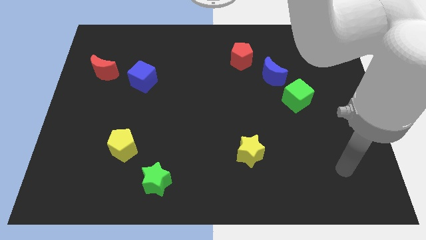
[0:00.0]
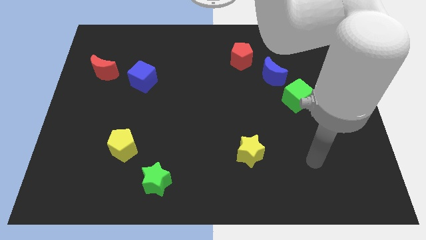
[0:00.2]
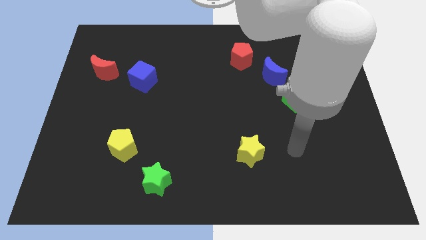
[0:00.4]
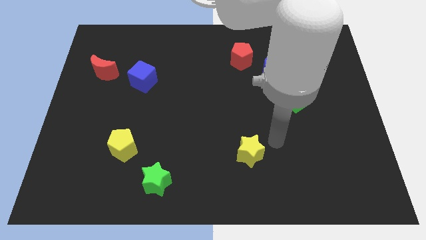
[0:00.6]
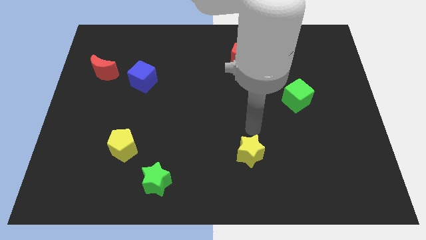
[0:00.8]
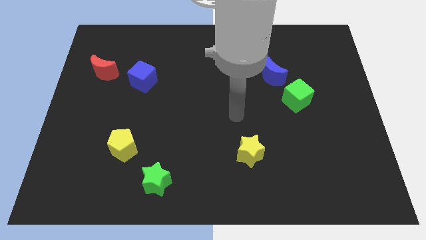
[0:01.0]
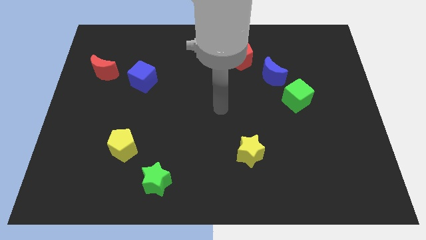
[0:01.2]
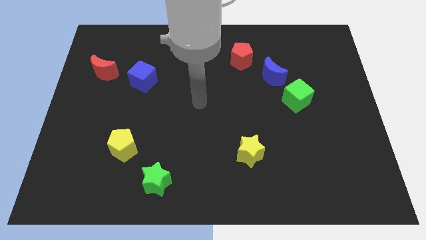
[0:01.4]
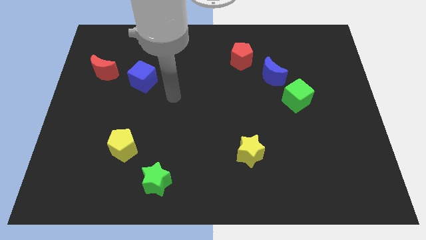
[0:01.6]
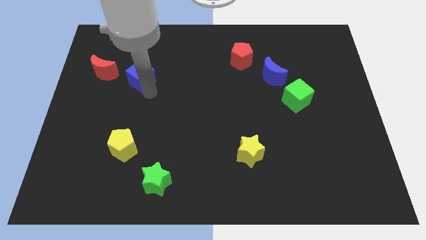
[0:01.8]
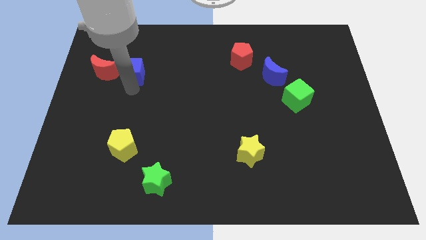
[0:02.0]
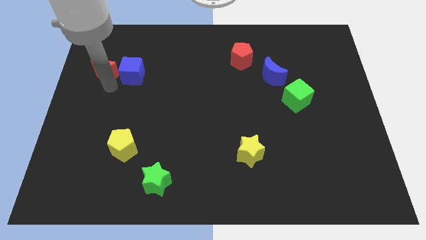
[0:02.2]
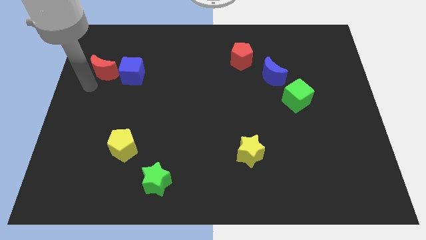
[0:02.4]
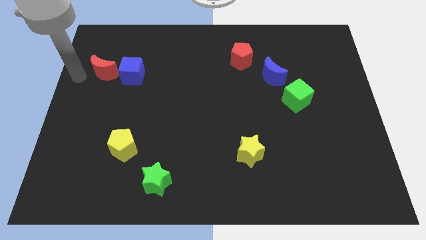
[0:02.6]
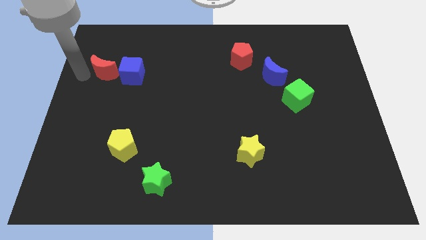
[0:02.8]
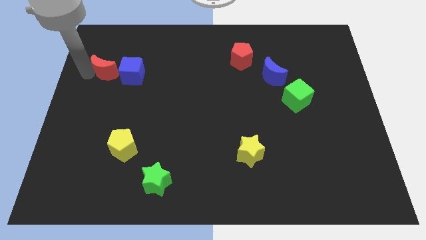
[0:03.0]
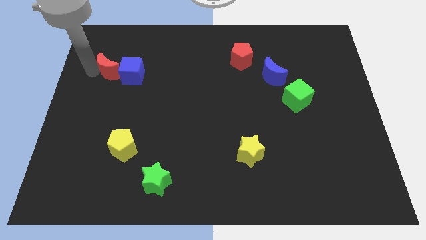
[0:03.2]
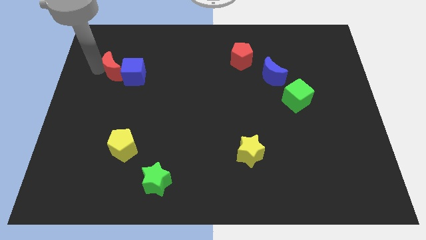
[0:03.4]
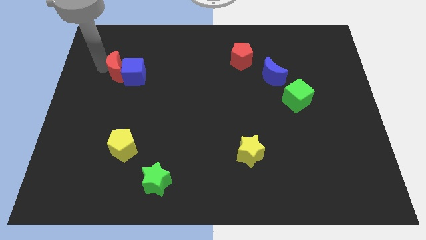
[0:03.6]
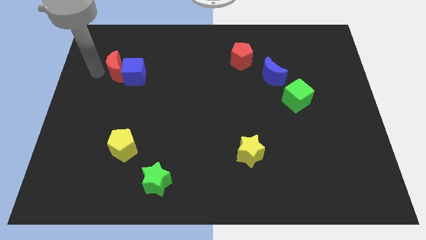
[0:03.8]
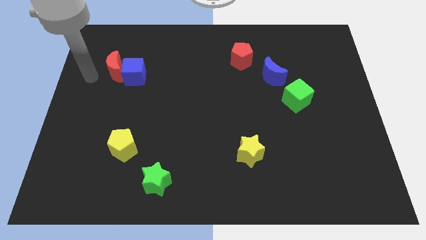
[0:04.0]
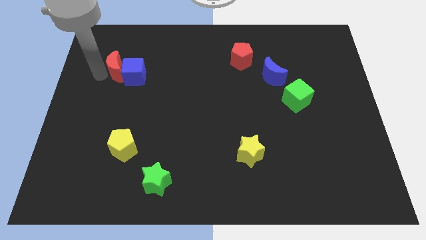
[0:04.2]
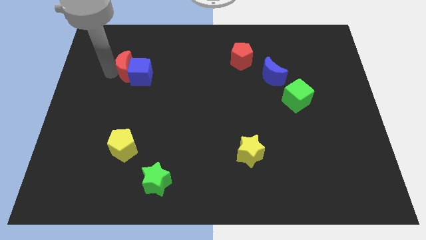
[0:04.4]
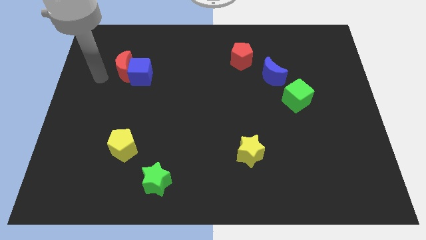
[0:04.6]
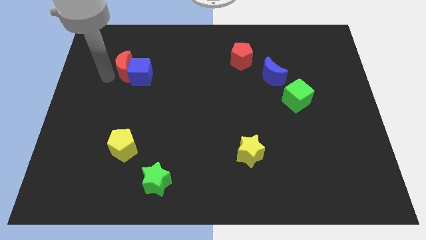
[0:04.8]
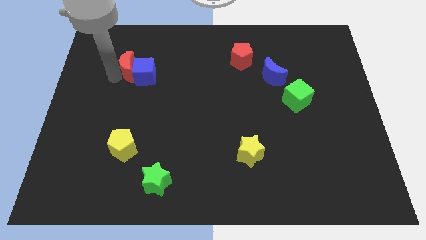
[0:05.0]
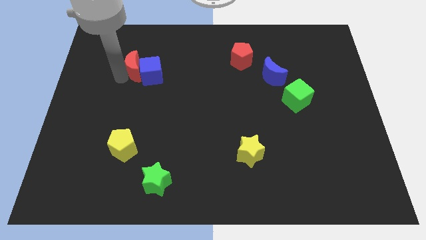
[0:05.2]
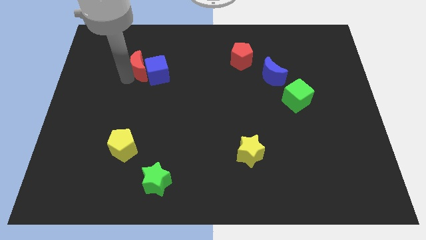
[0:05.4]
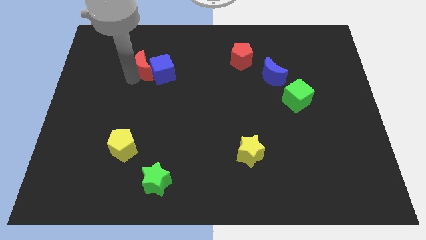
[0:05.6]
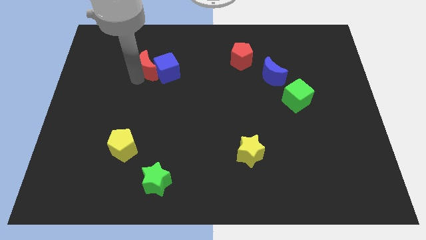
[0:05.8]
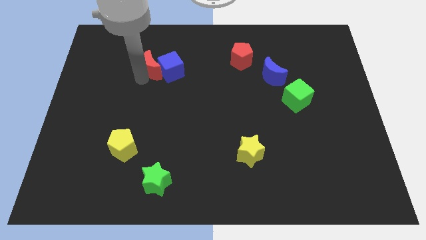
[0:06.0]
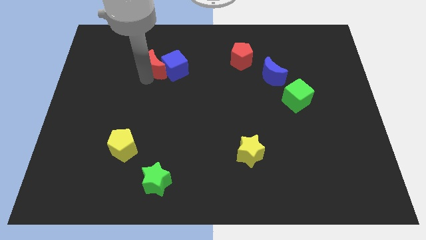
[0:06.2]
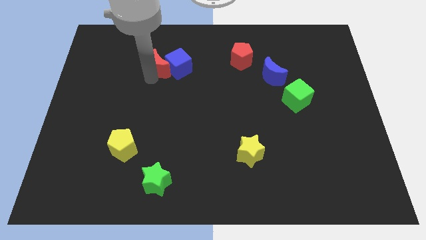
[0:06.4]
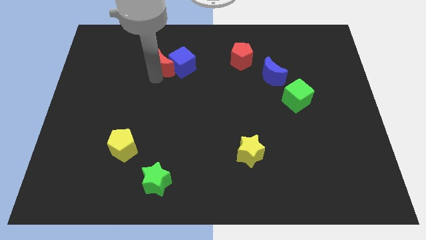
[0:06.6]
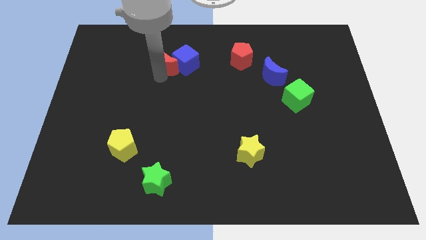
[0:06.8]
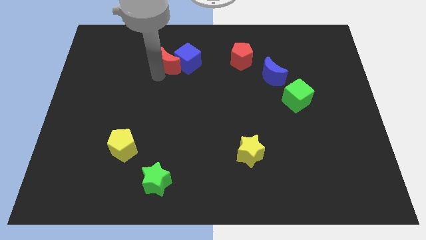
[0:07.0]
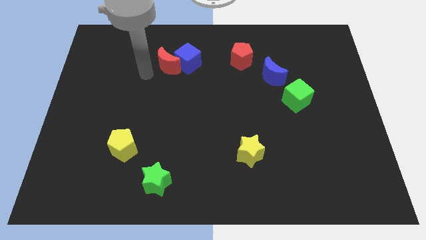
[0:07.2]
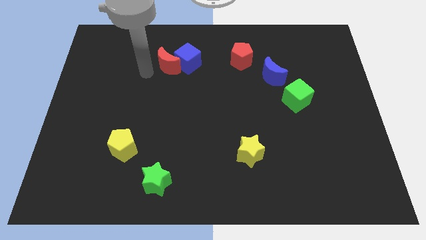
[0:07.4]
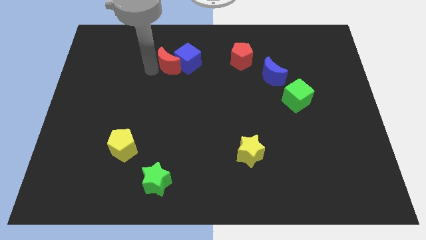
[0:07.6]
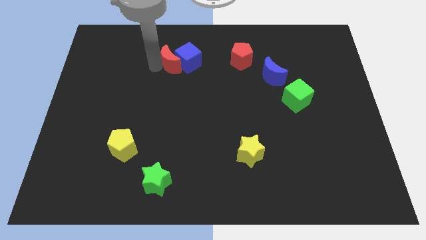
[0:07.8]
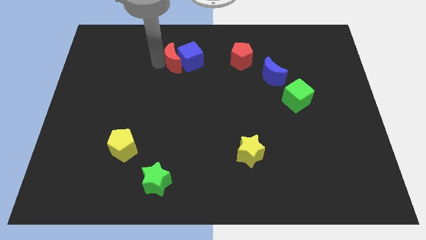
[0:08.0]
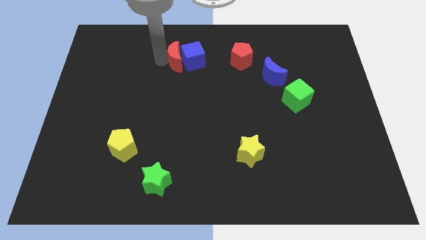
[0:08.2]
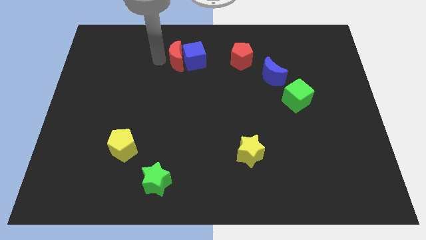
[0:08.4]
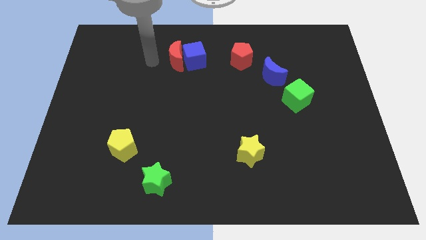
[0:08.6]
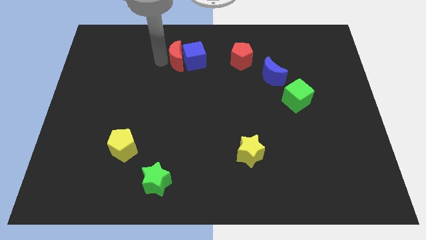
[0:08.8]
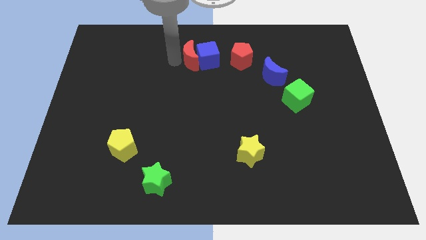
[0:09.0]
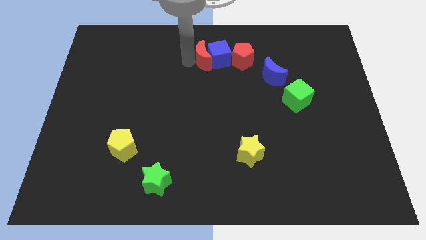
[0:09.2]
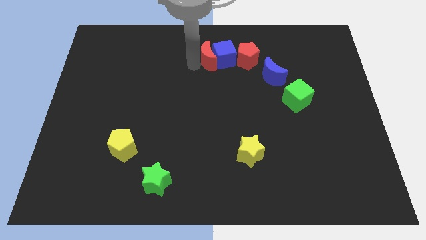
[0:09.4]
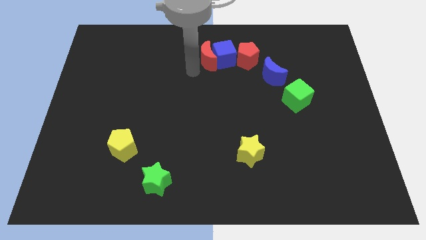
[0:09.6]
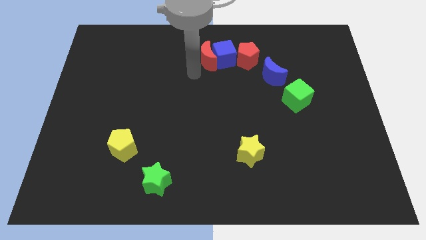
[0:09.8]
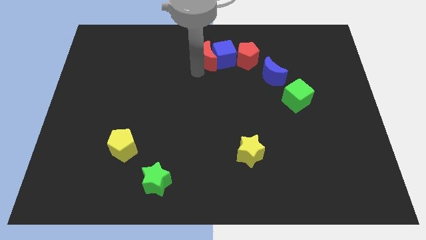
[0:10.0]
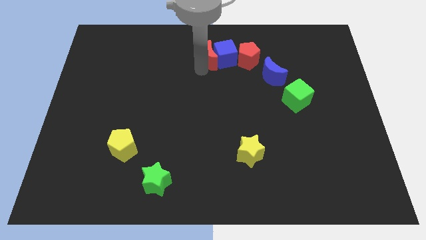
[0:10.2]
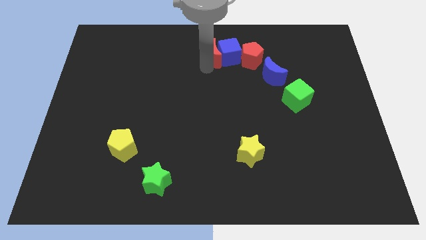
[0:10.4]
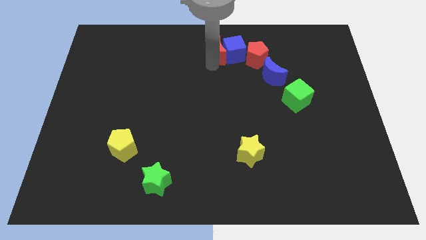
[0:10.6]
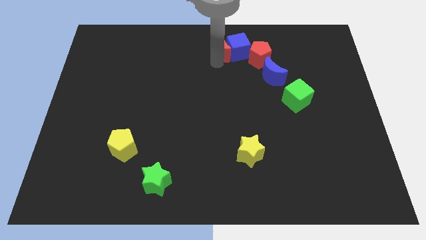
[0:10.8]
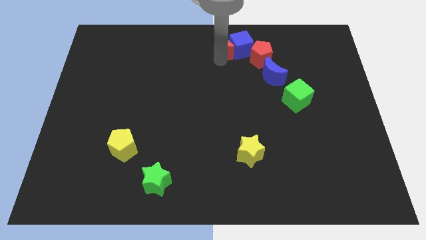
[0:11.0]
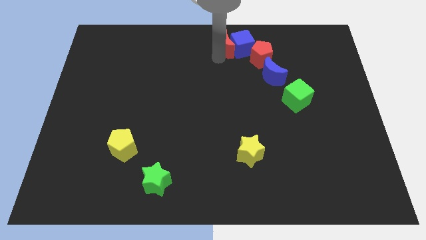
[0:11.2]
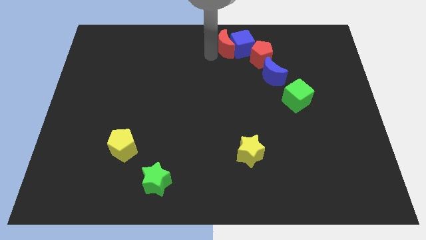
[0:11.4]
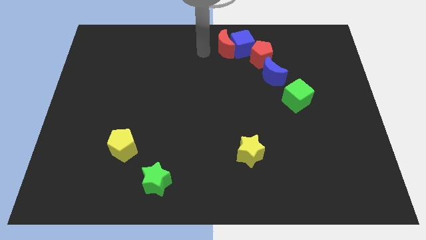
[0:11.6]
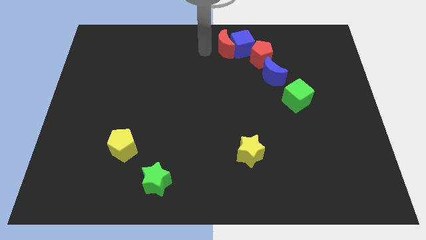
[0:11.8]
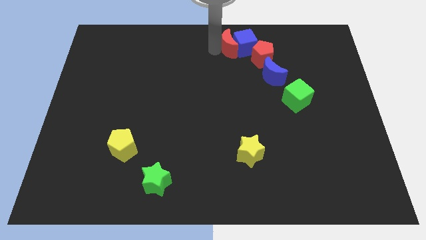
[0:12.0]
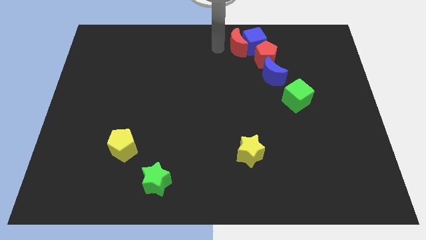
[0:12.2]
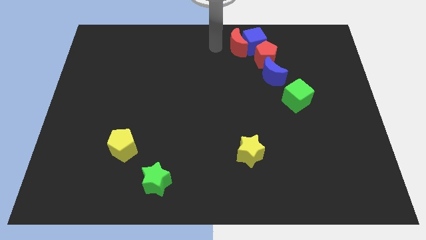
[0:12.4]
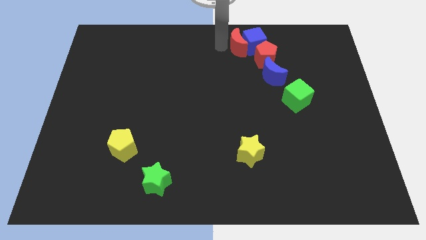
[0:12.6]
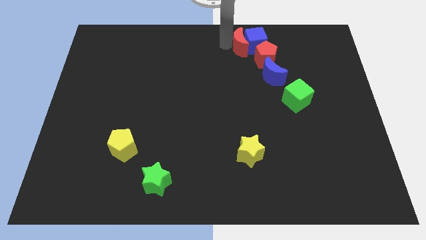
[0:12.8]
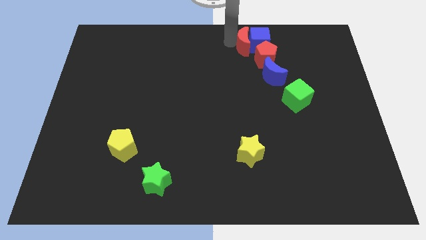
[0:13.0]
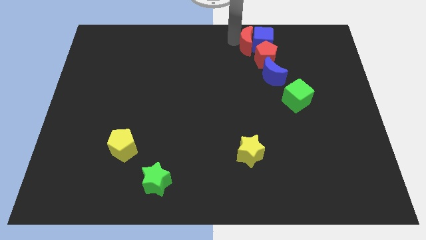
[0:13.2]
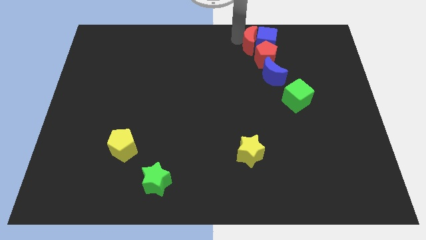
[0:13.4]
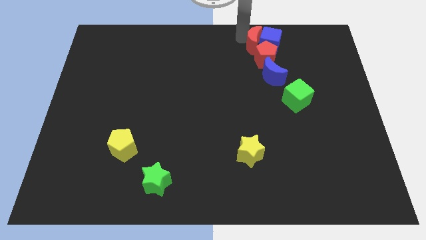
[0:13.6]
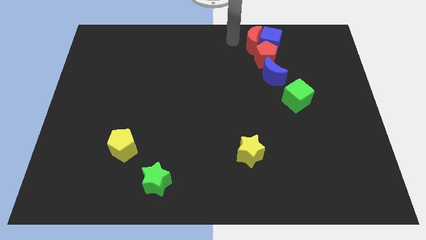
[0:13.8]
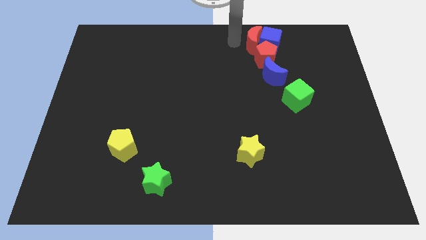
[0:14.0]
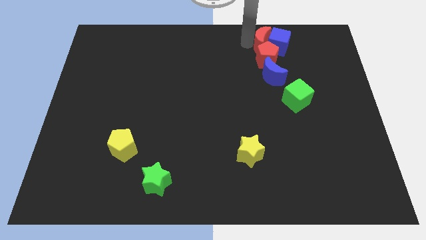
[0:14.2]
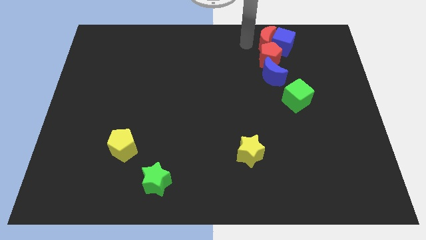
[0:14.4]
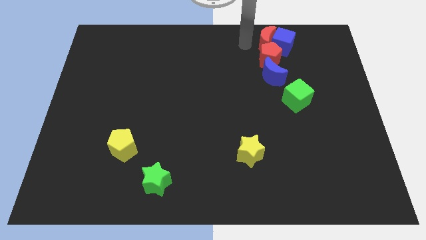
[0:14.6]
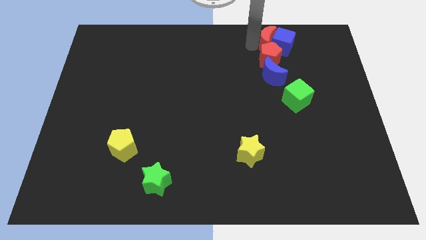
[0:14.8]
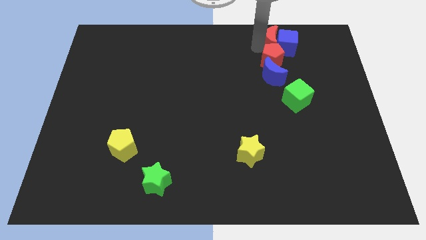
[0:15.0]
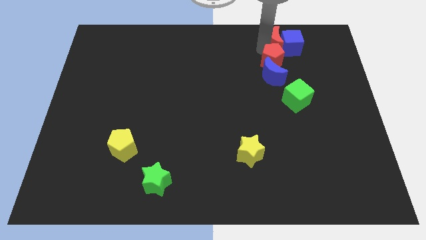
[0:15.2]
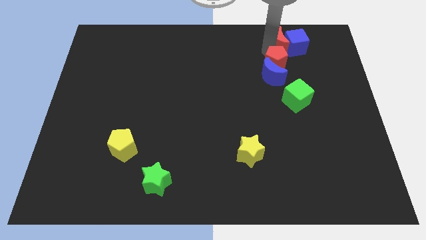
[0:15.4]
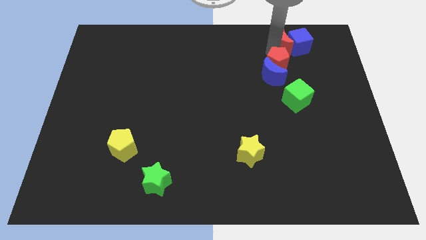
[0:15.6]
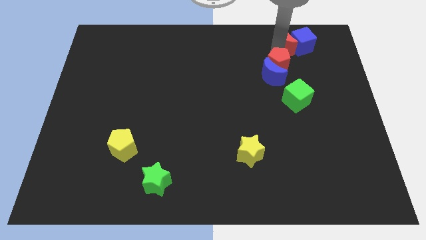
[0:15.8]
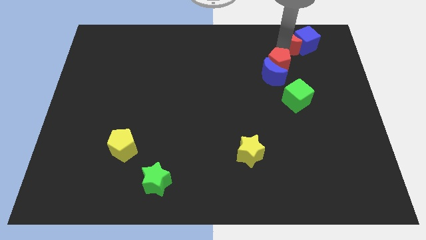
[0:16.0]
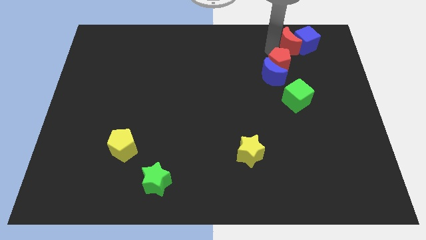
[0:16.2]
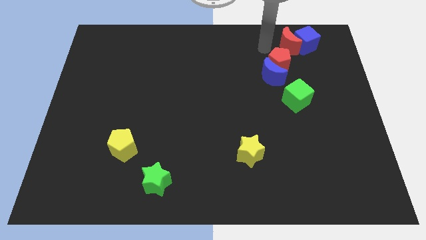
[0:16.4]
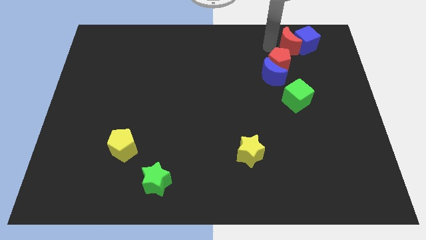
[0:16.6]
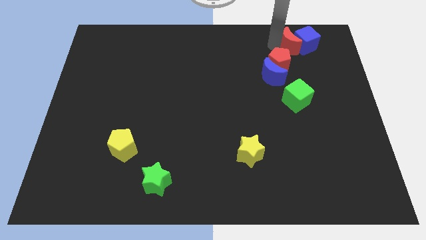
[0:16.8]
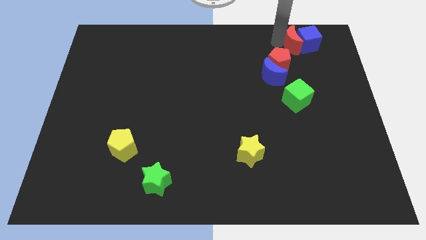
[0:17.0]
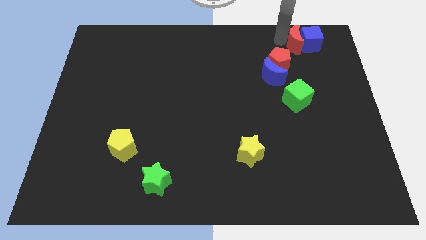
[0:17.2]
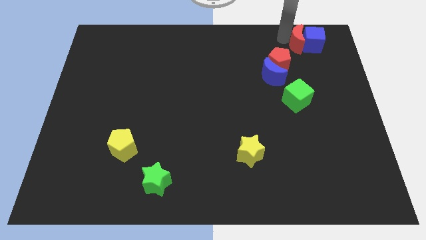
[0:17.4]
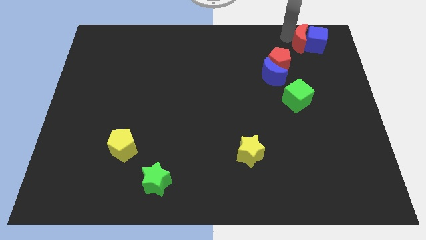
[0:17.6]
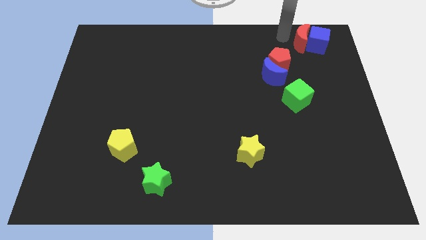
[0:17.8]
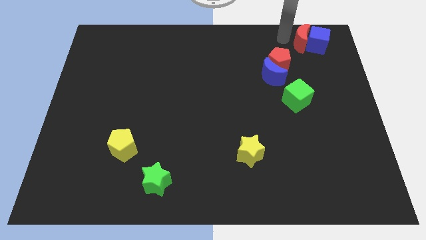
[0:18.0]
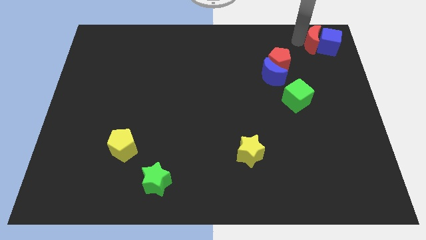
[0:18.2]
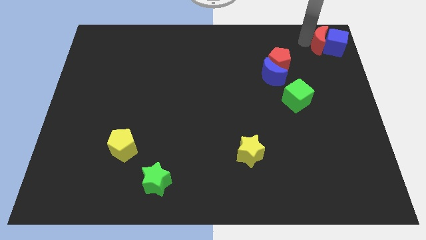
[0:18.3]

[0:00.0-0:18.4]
slide the red moon to the top right of the board
